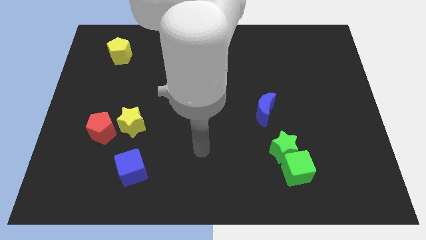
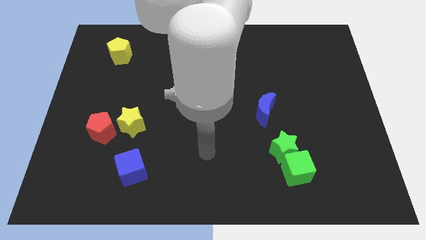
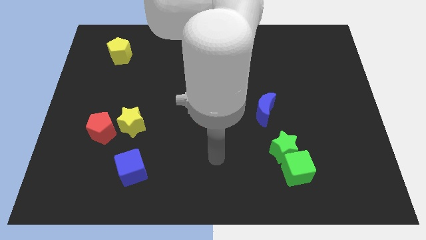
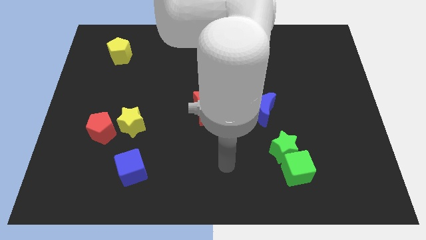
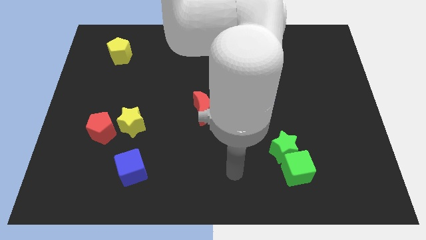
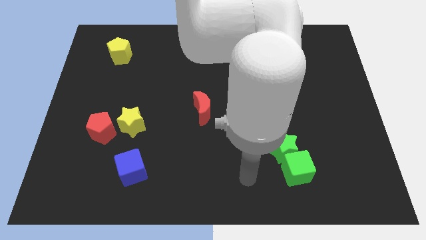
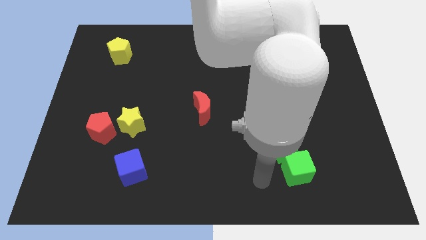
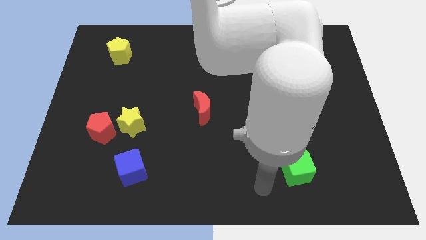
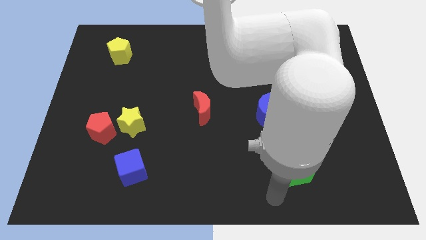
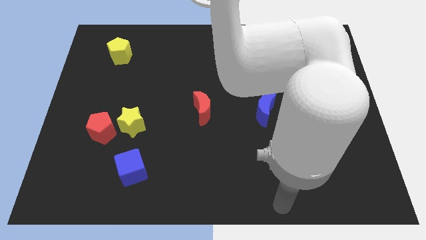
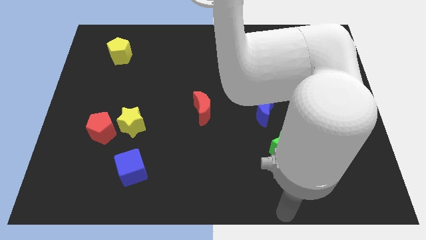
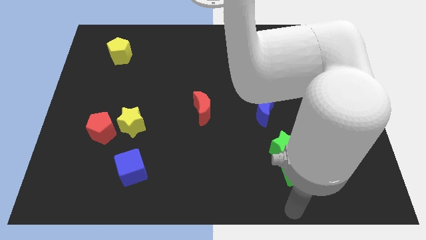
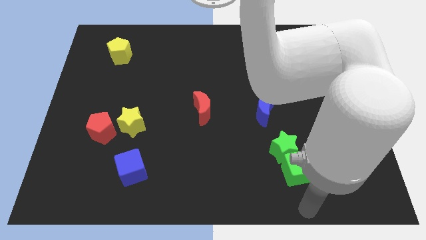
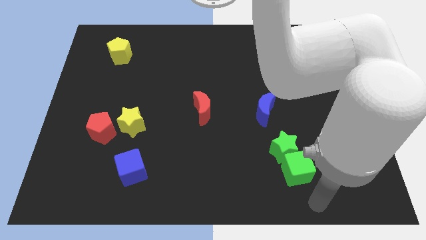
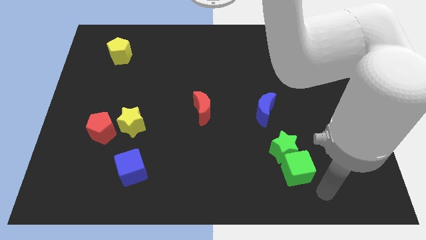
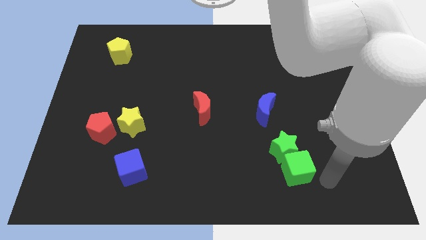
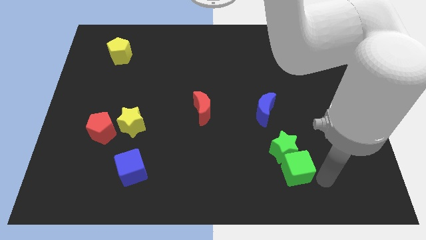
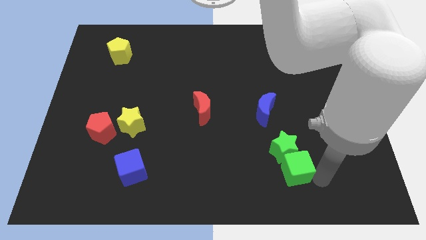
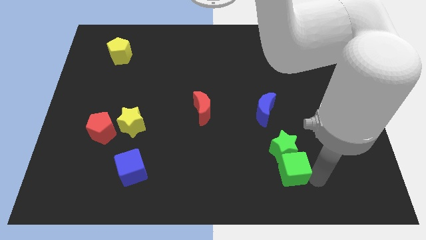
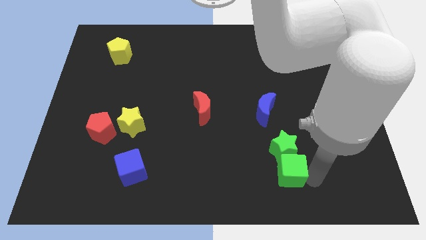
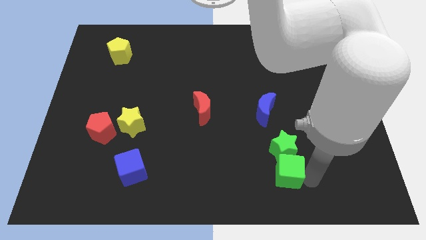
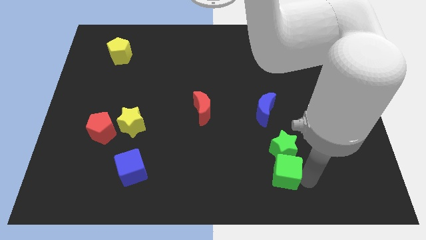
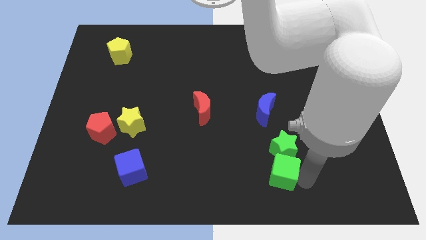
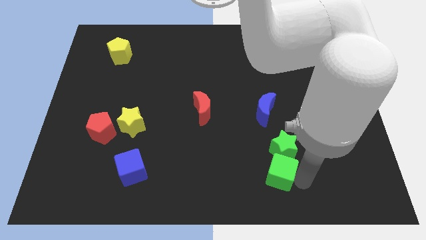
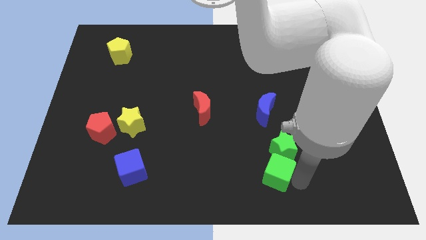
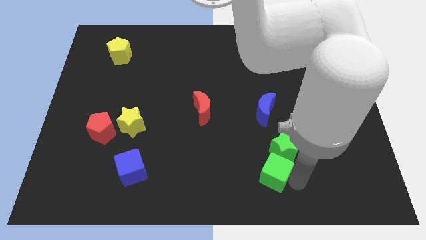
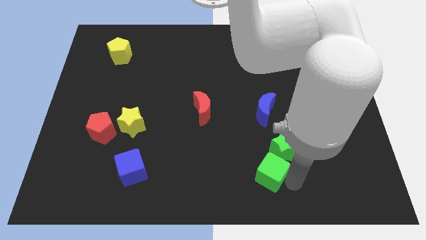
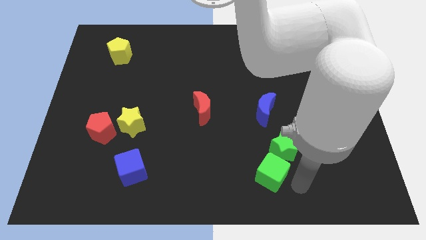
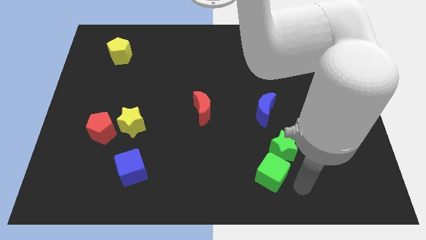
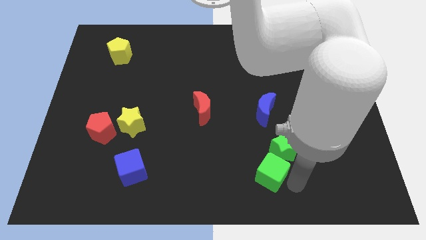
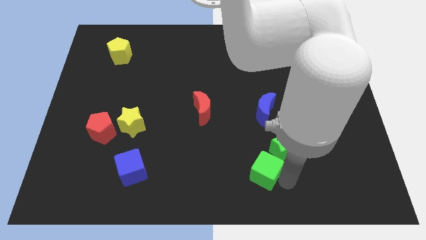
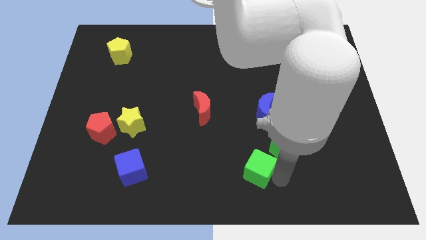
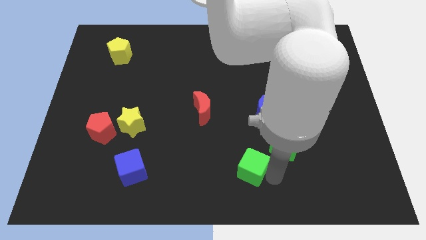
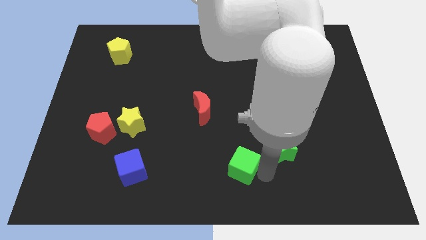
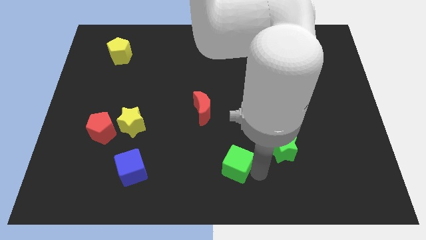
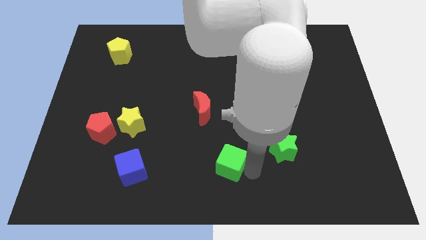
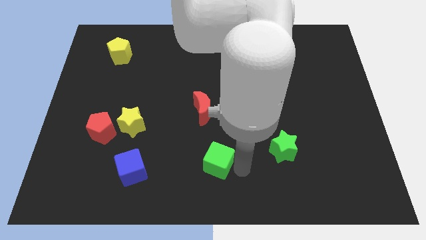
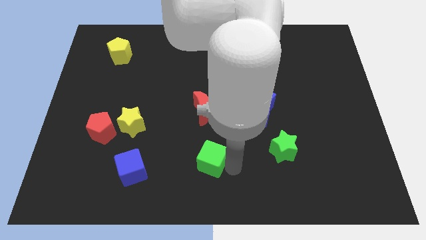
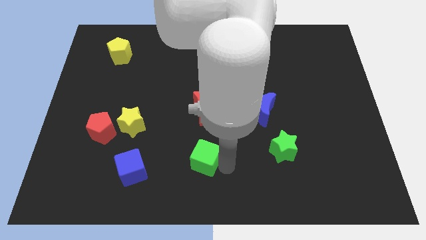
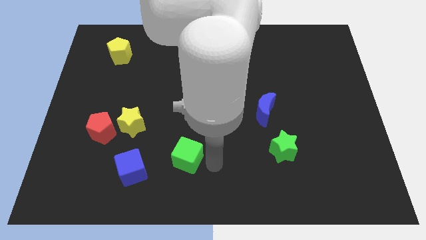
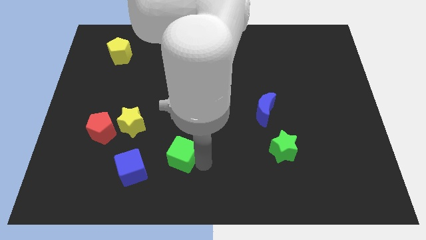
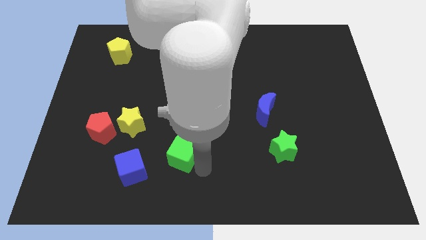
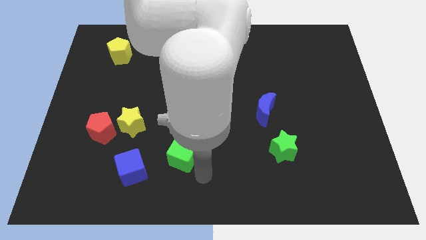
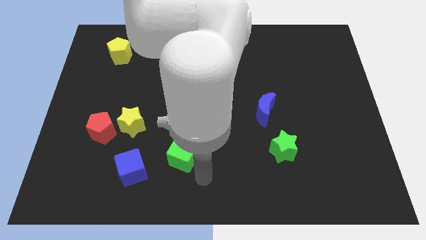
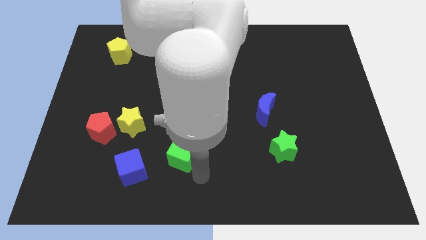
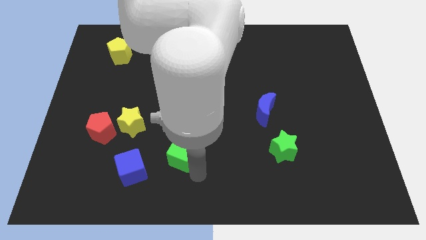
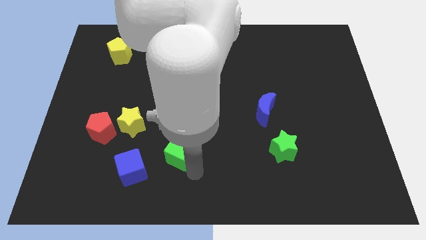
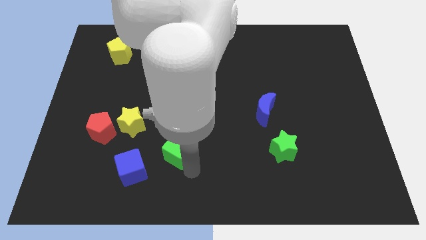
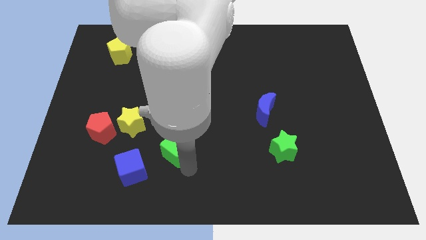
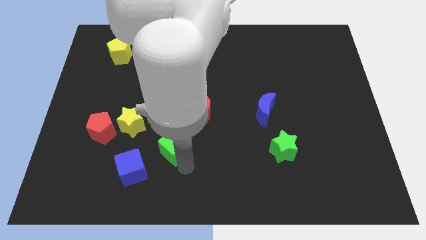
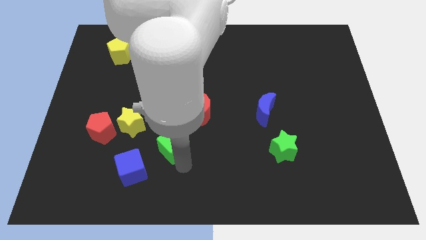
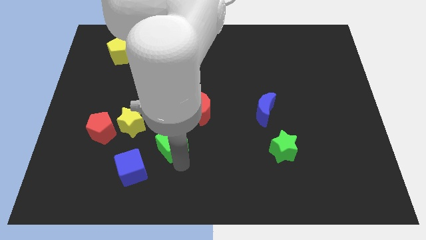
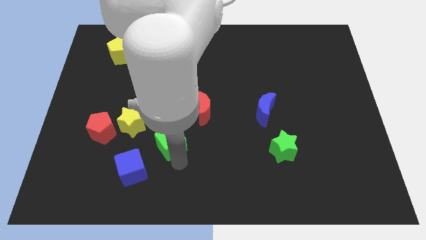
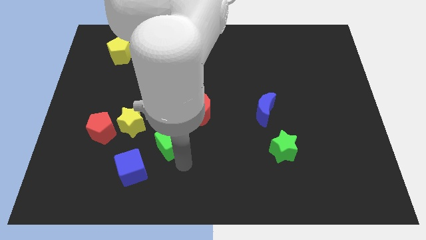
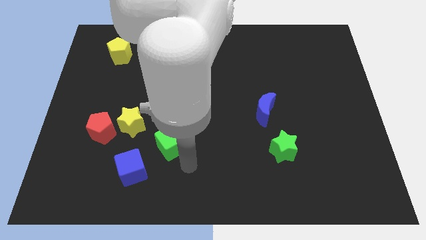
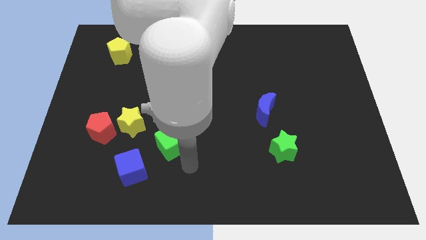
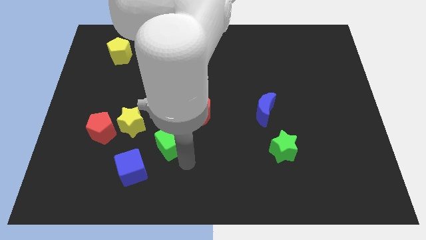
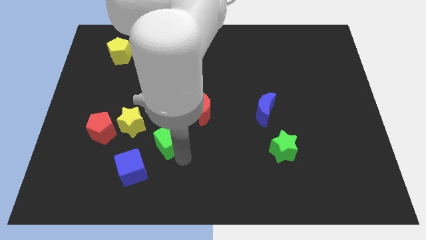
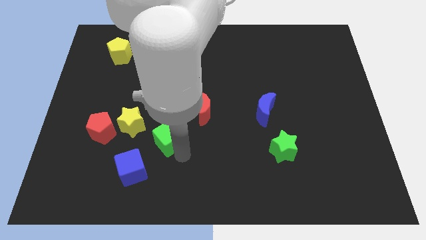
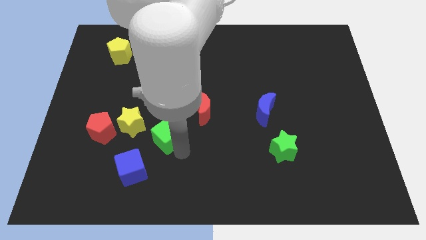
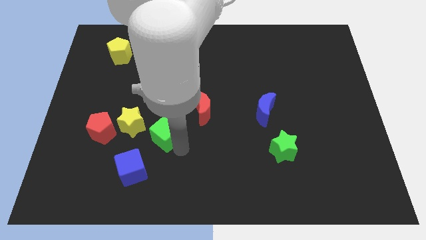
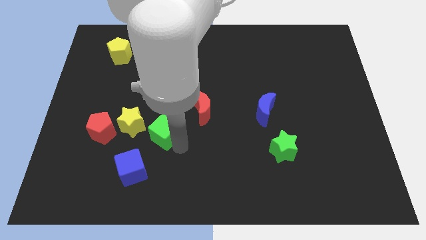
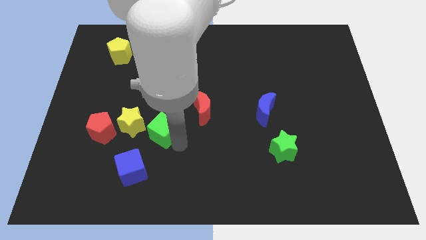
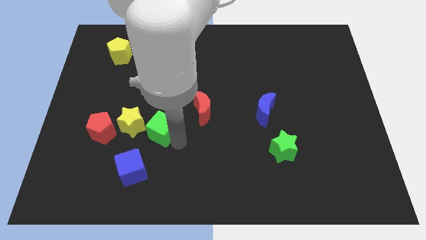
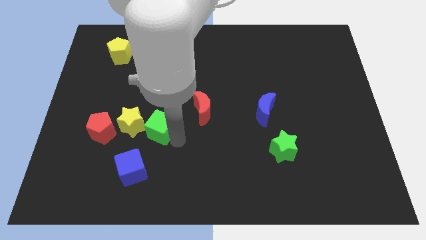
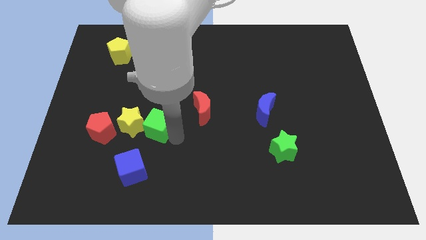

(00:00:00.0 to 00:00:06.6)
slide the green cube towards the yellow star

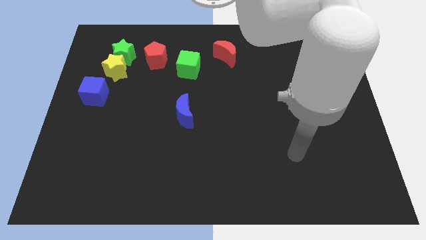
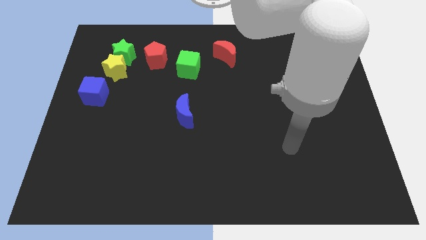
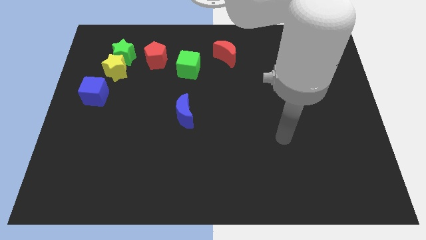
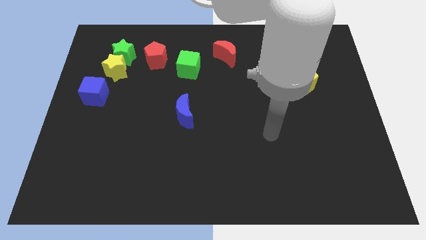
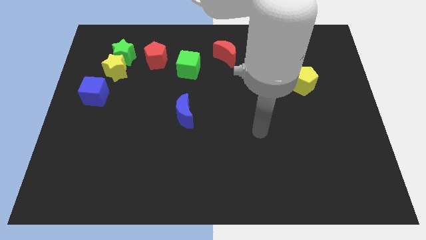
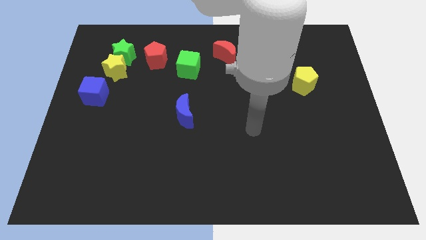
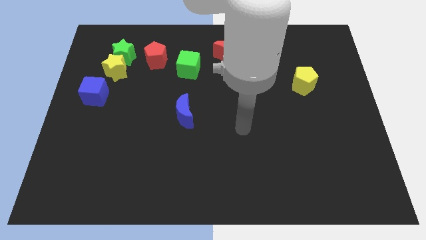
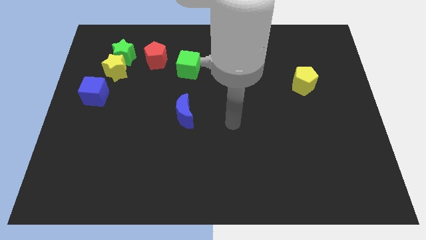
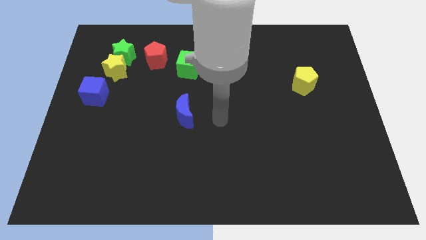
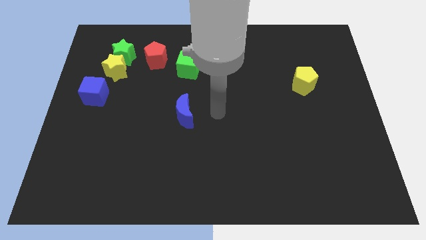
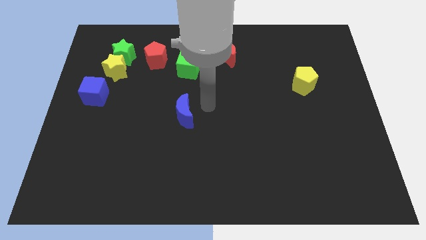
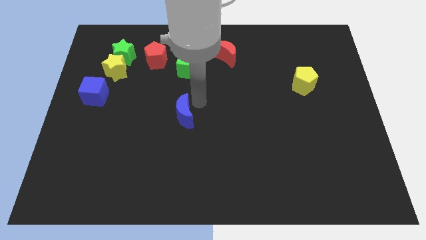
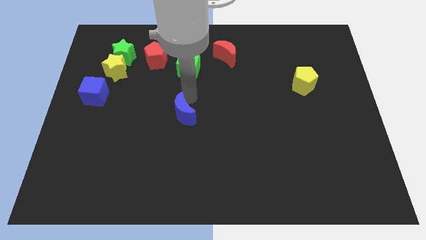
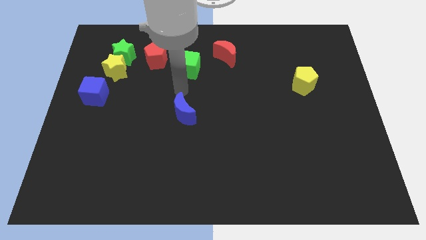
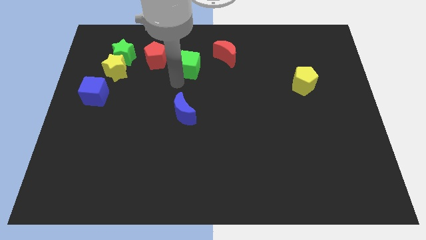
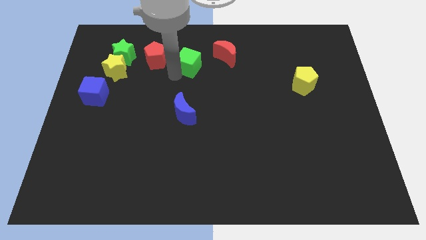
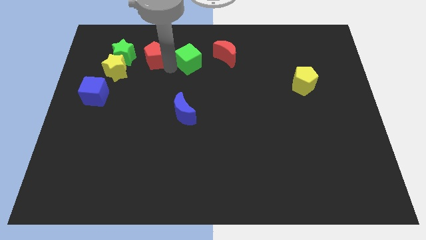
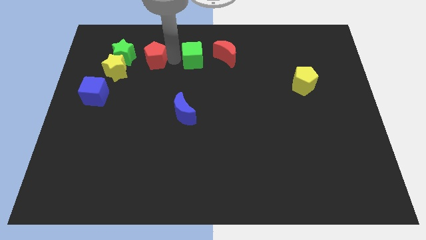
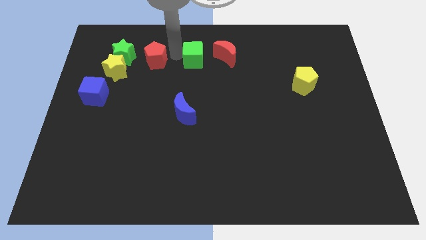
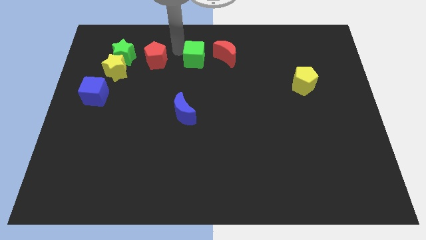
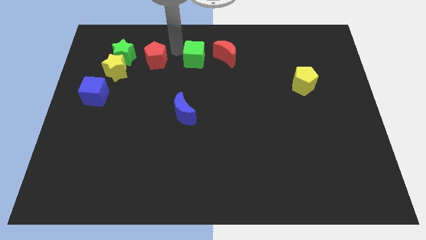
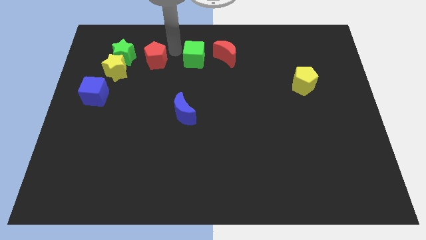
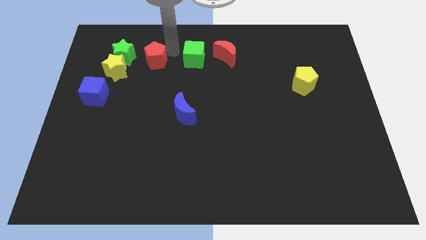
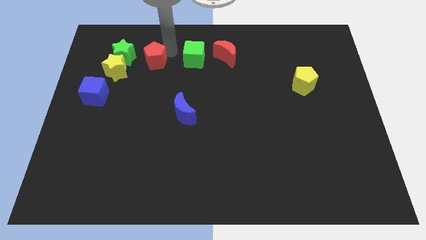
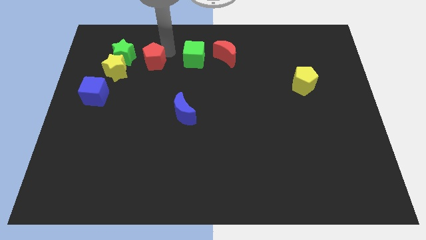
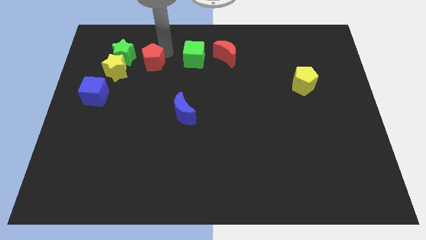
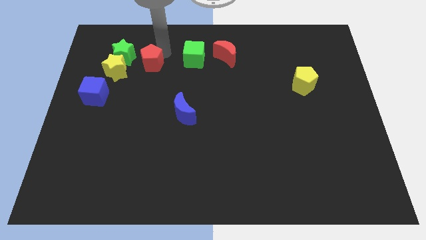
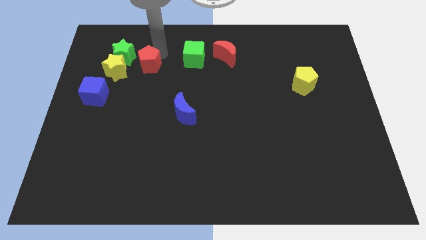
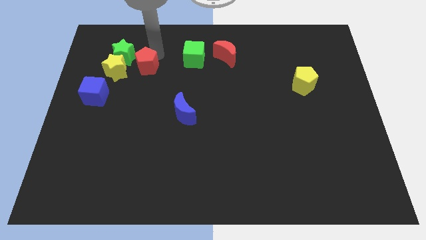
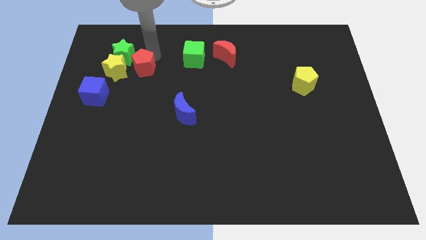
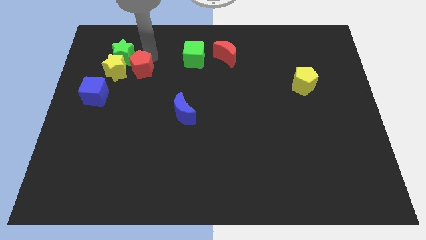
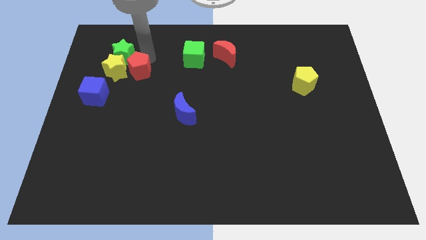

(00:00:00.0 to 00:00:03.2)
move the red pentagon to the yellow star
